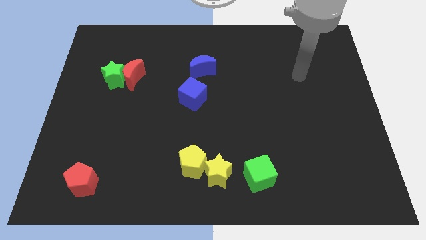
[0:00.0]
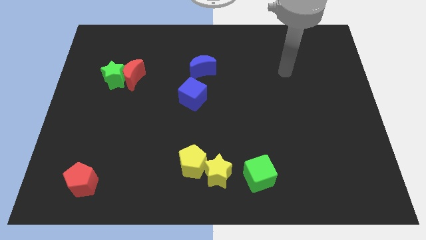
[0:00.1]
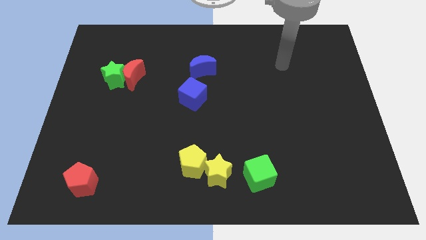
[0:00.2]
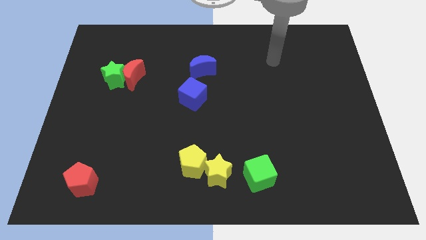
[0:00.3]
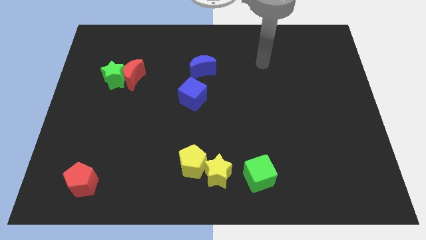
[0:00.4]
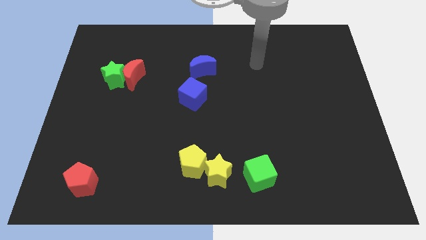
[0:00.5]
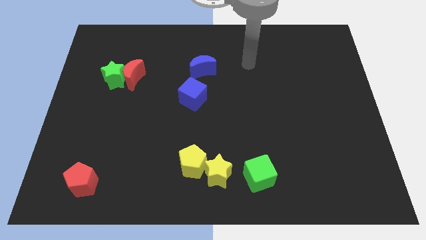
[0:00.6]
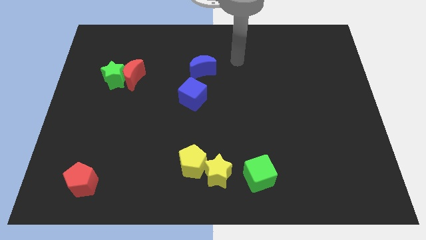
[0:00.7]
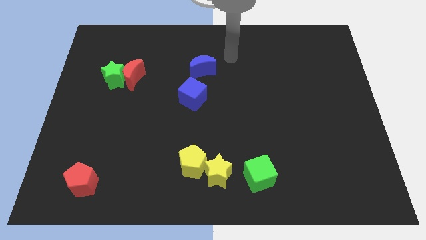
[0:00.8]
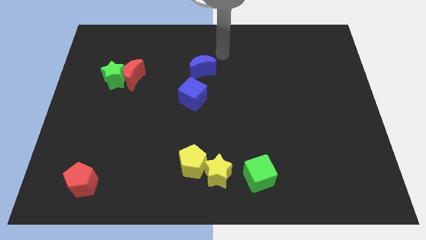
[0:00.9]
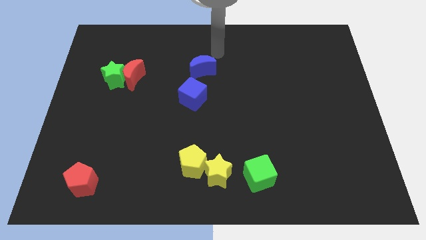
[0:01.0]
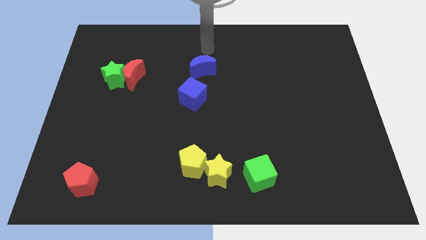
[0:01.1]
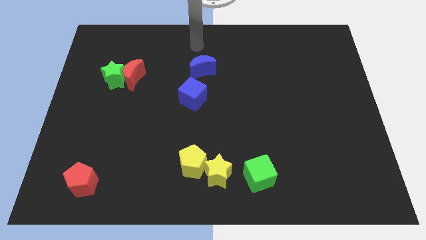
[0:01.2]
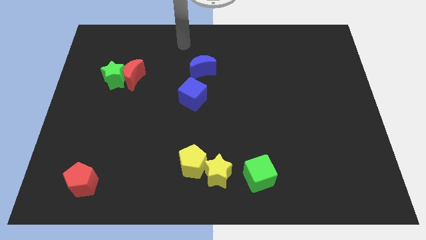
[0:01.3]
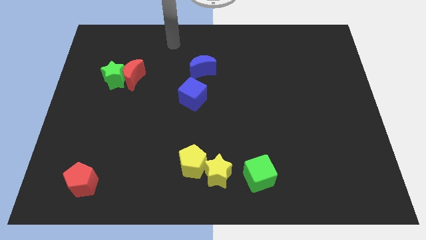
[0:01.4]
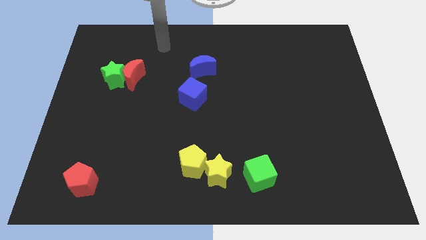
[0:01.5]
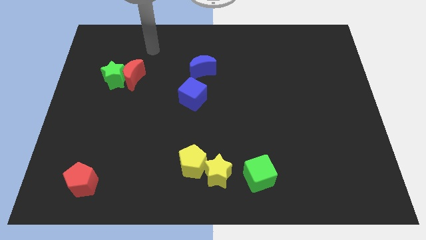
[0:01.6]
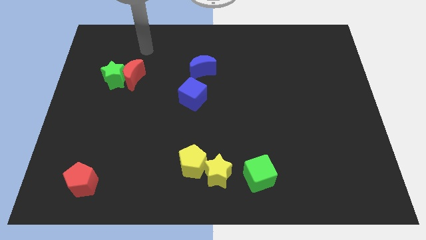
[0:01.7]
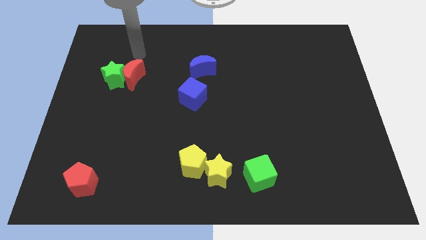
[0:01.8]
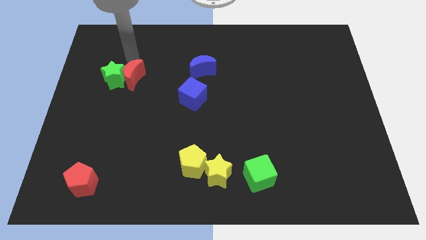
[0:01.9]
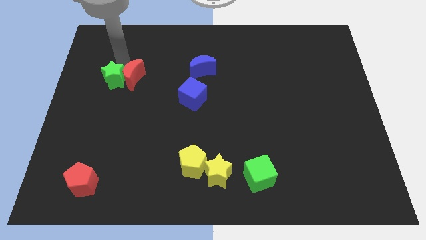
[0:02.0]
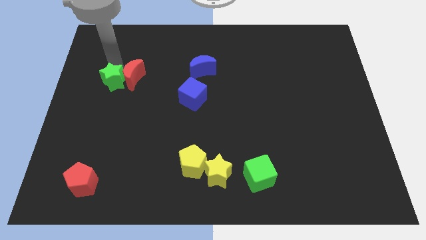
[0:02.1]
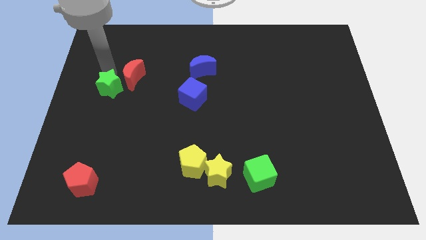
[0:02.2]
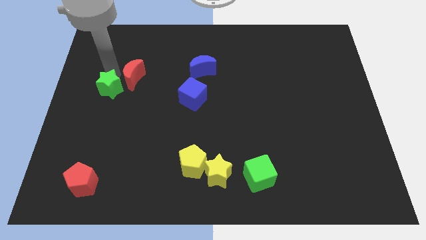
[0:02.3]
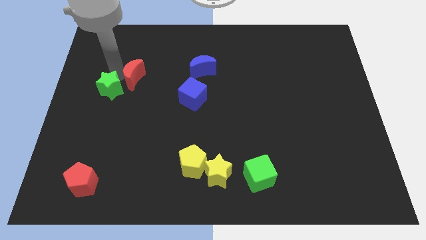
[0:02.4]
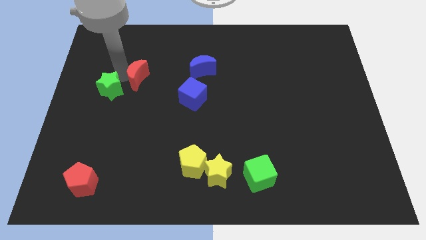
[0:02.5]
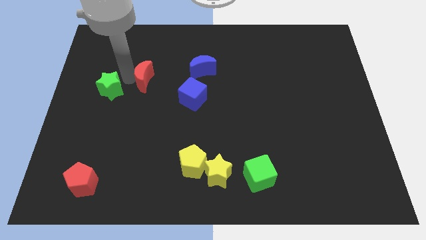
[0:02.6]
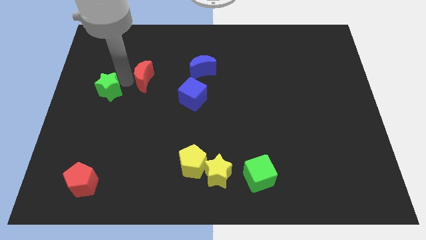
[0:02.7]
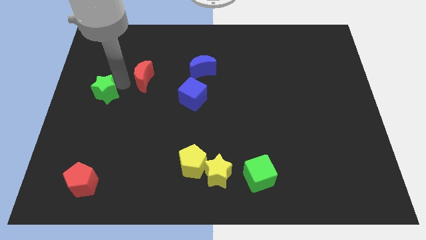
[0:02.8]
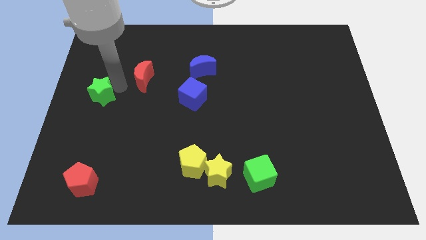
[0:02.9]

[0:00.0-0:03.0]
move the red moon away from the green star

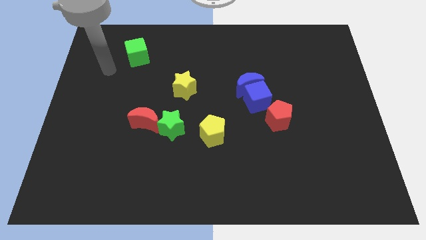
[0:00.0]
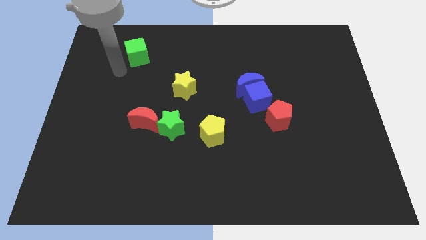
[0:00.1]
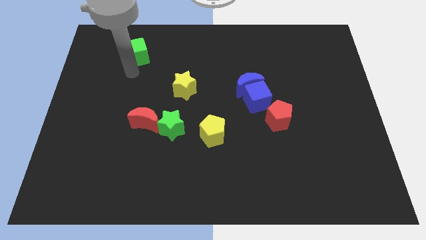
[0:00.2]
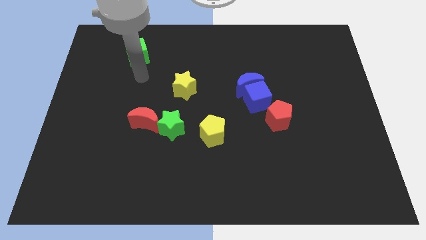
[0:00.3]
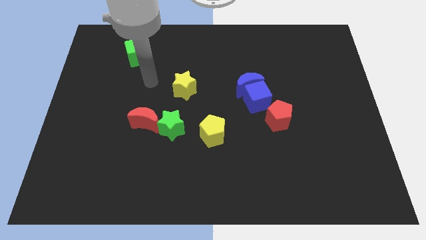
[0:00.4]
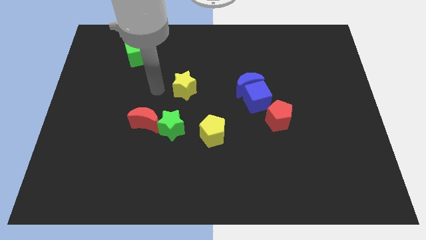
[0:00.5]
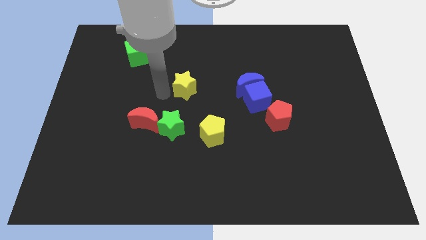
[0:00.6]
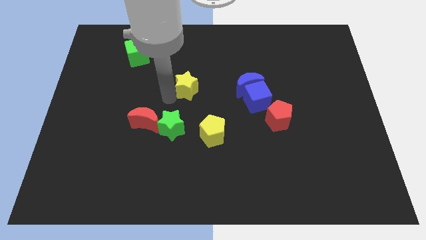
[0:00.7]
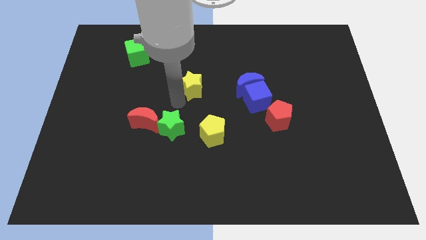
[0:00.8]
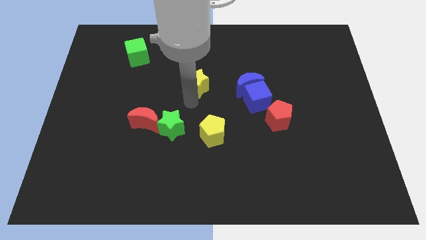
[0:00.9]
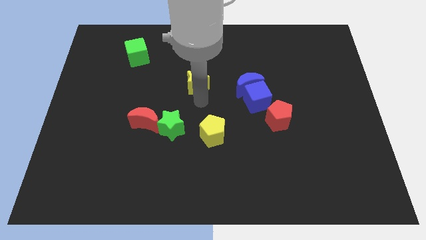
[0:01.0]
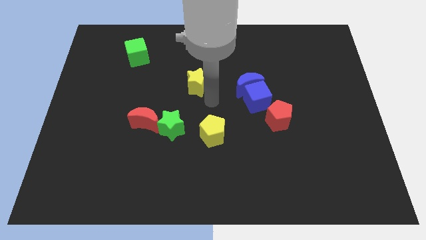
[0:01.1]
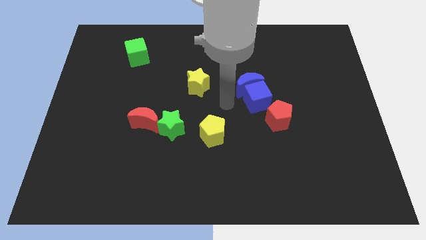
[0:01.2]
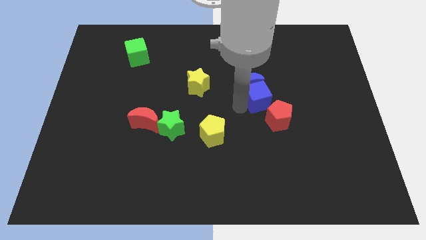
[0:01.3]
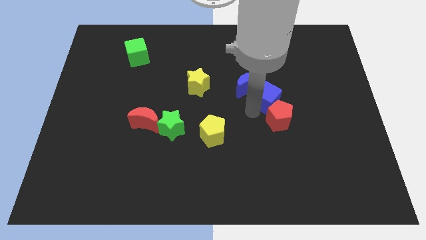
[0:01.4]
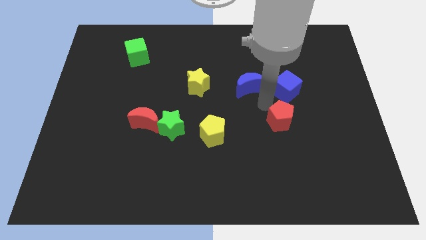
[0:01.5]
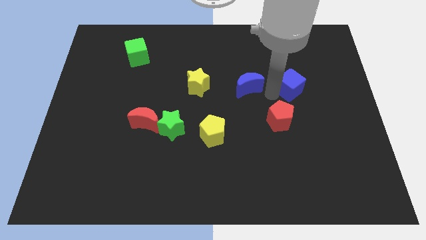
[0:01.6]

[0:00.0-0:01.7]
separate the blue moon from the blue cube

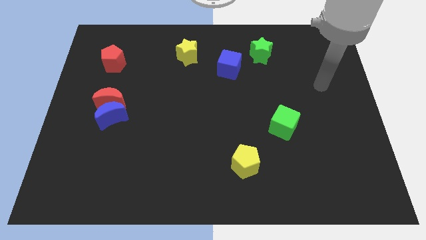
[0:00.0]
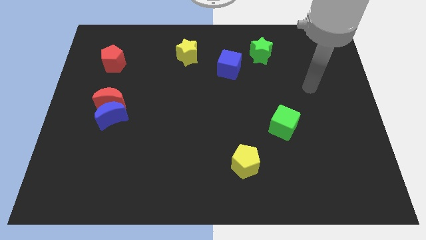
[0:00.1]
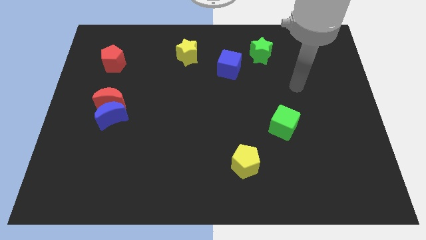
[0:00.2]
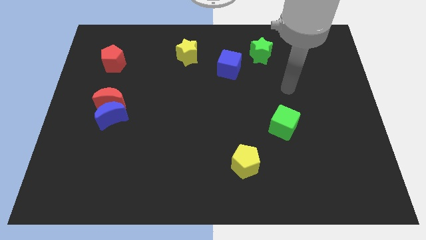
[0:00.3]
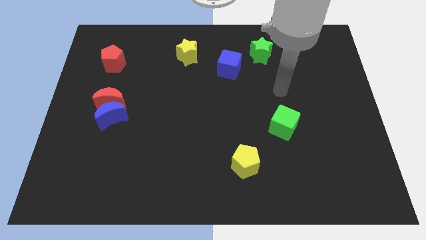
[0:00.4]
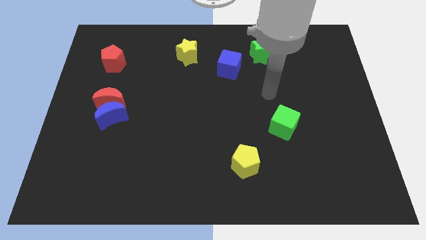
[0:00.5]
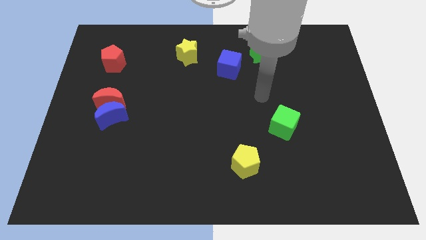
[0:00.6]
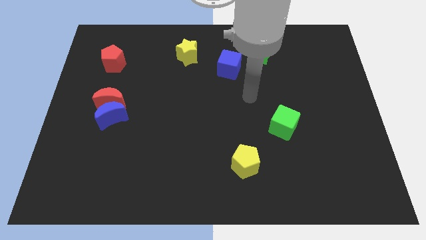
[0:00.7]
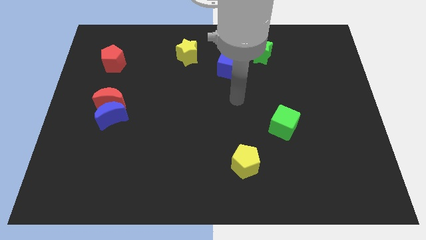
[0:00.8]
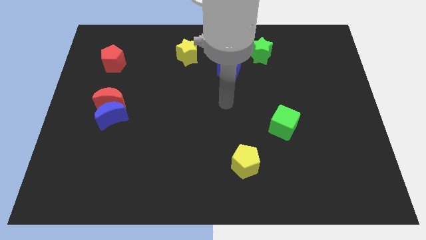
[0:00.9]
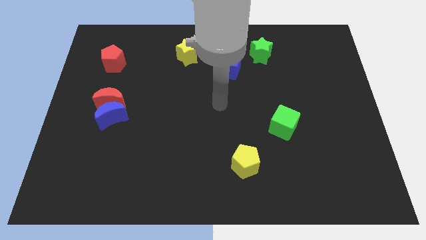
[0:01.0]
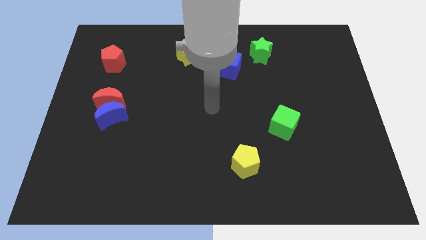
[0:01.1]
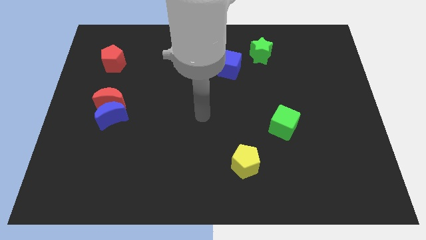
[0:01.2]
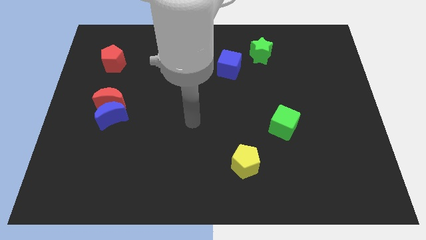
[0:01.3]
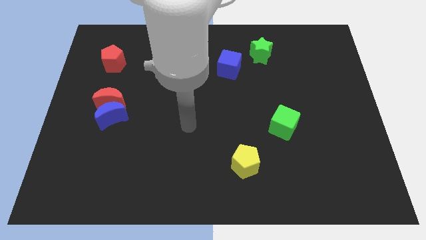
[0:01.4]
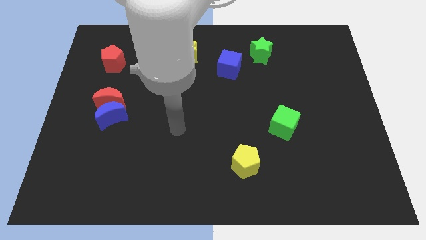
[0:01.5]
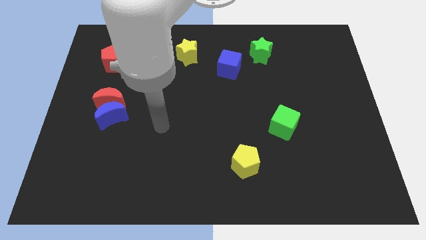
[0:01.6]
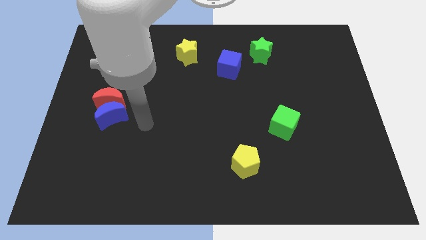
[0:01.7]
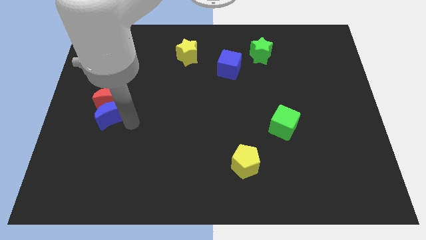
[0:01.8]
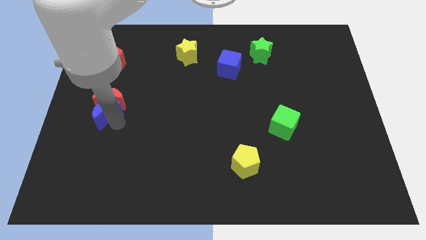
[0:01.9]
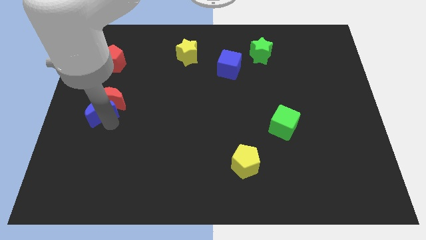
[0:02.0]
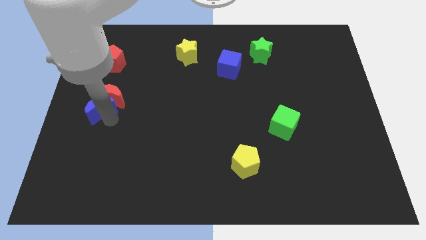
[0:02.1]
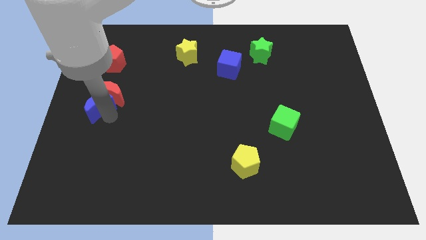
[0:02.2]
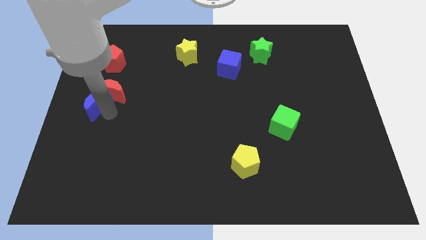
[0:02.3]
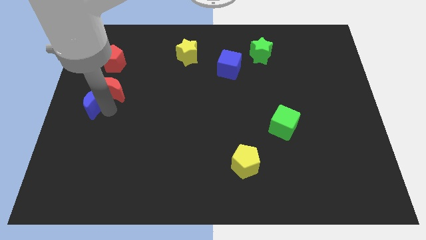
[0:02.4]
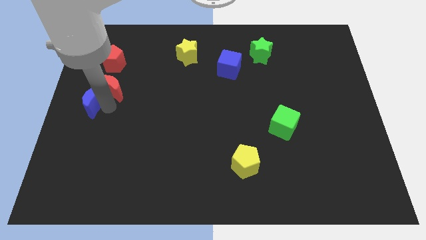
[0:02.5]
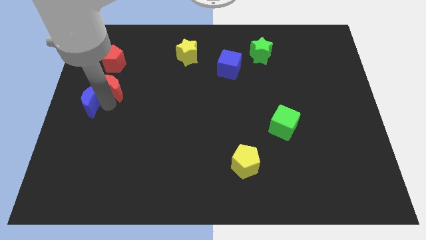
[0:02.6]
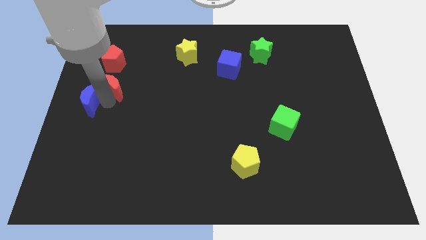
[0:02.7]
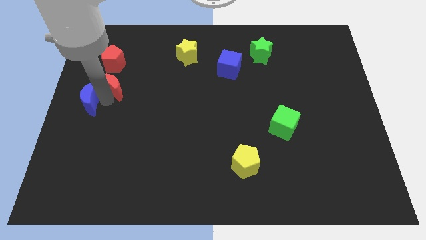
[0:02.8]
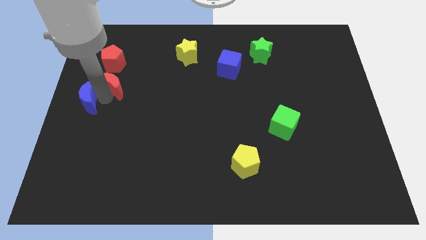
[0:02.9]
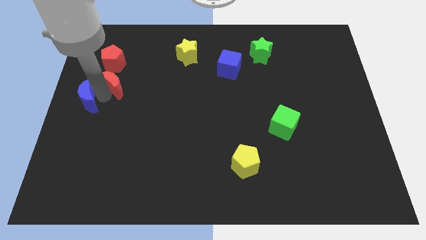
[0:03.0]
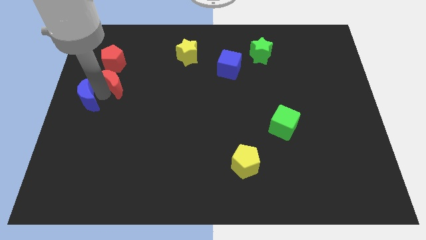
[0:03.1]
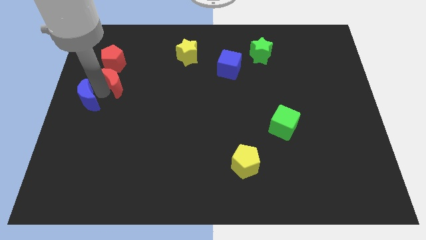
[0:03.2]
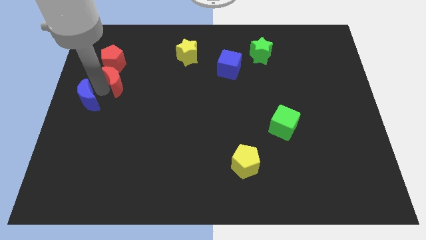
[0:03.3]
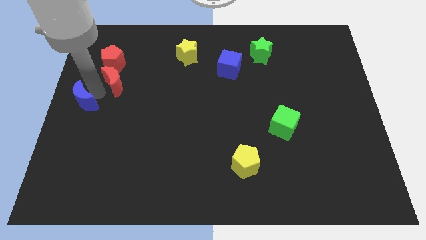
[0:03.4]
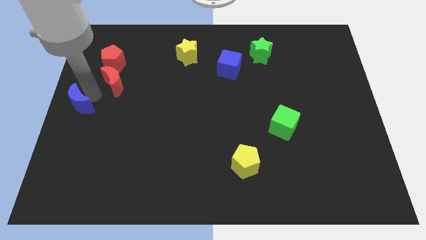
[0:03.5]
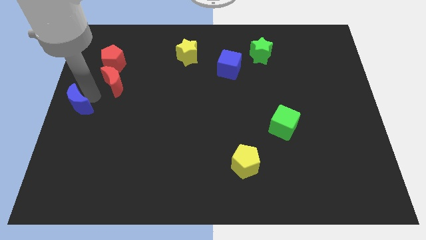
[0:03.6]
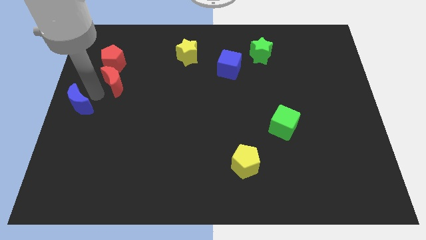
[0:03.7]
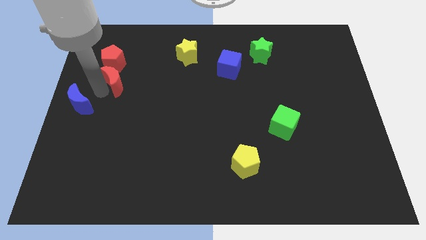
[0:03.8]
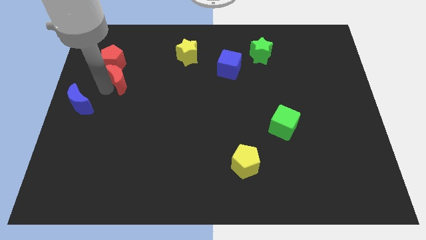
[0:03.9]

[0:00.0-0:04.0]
separate the red moon from the blue moon

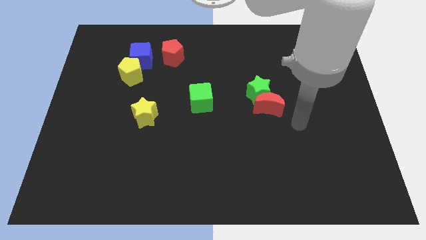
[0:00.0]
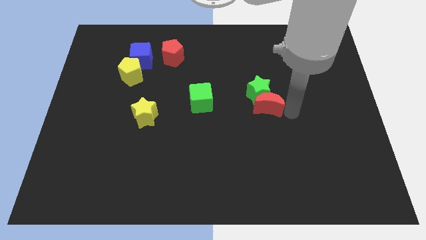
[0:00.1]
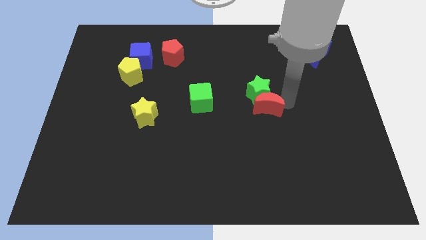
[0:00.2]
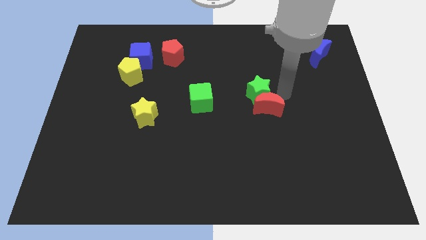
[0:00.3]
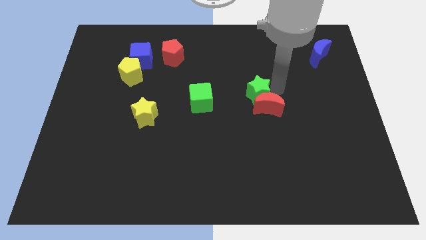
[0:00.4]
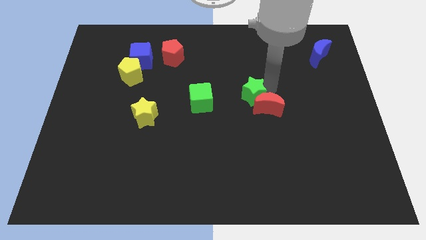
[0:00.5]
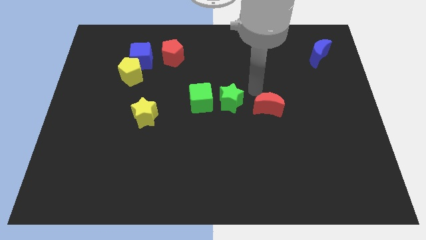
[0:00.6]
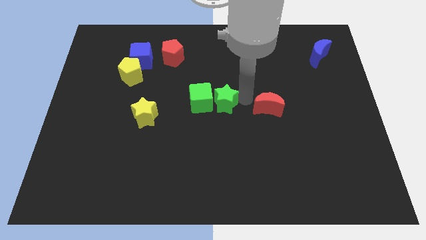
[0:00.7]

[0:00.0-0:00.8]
pull the red moon apart from the green star
